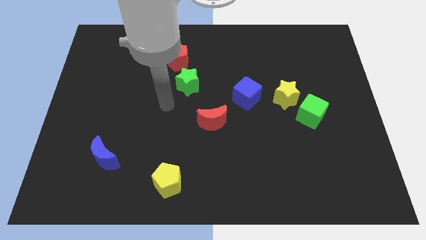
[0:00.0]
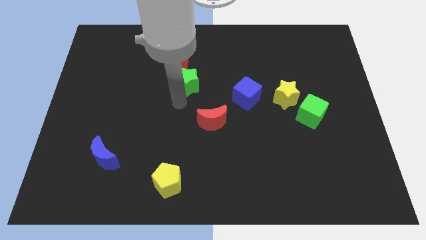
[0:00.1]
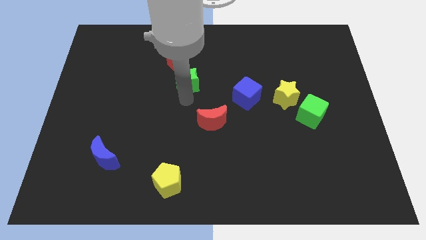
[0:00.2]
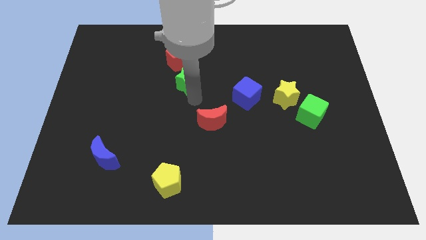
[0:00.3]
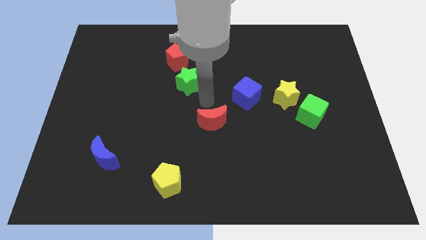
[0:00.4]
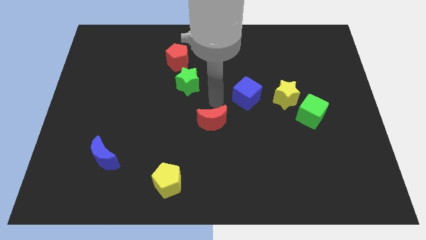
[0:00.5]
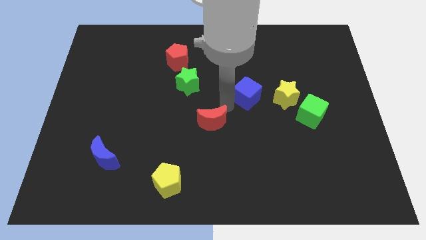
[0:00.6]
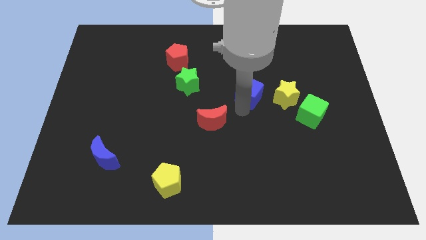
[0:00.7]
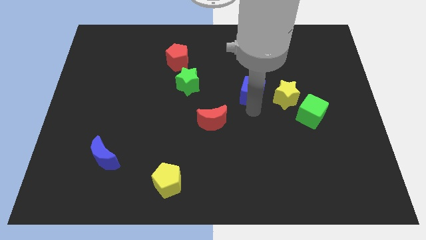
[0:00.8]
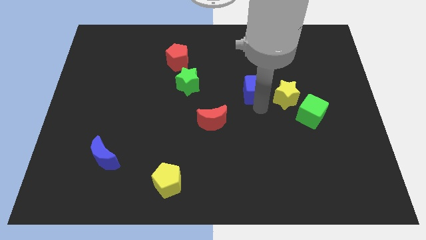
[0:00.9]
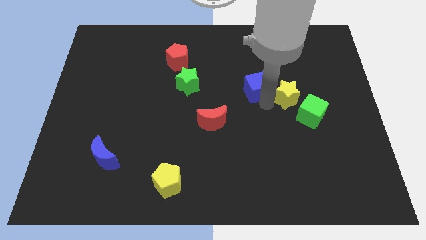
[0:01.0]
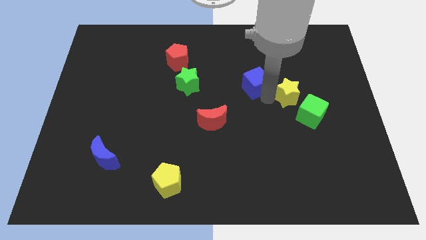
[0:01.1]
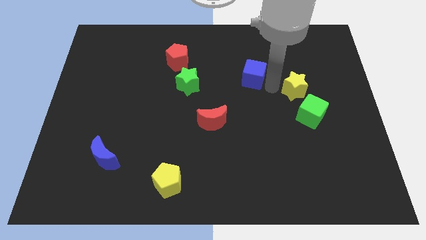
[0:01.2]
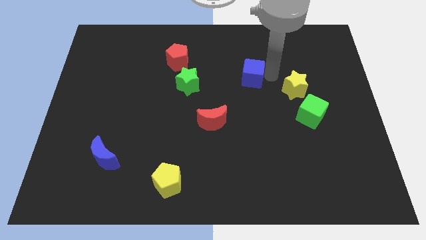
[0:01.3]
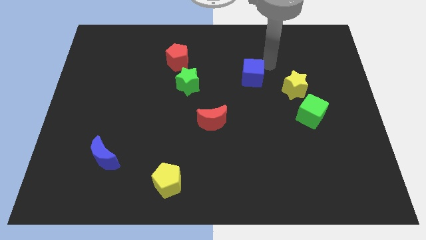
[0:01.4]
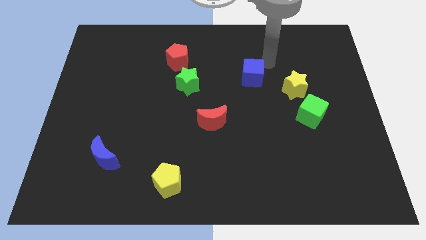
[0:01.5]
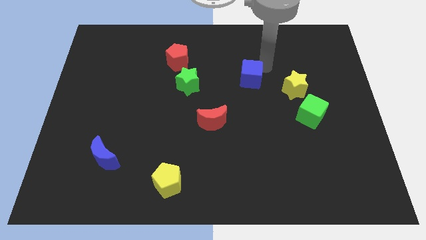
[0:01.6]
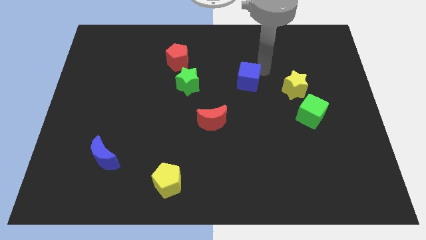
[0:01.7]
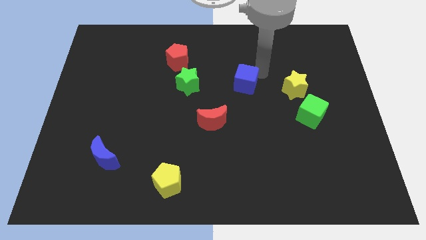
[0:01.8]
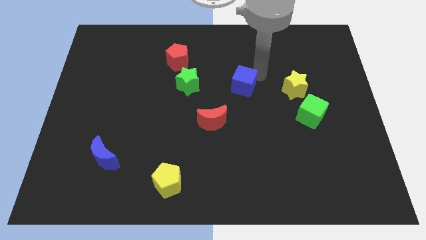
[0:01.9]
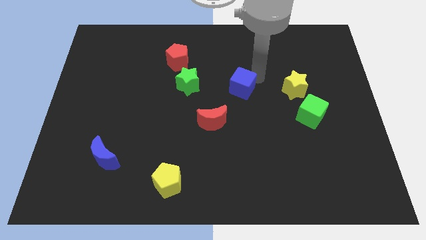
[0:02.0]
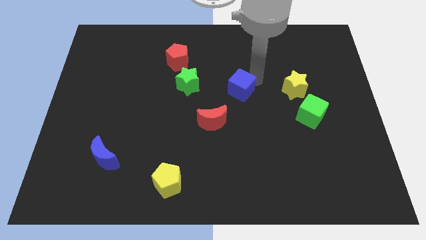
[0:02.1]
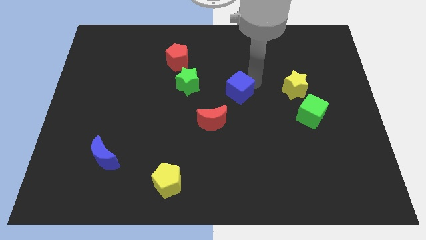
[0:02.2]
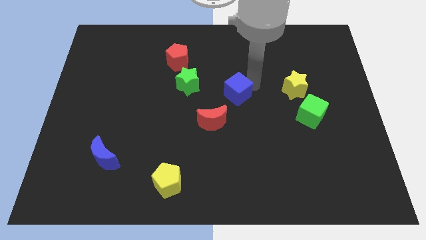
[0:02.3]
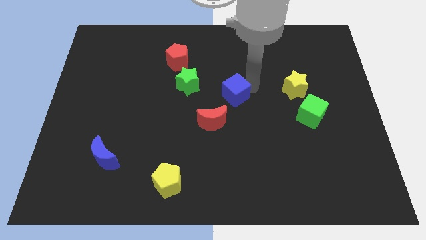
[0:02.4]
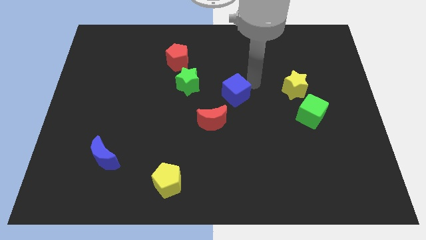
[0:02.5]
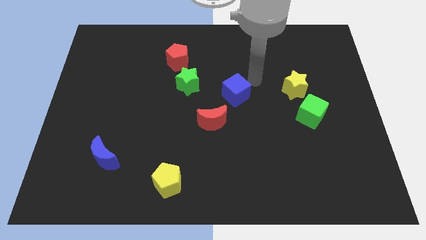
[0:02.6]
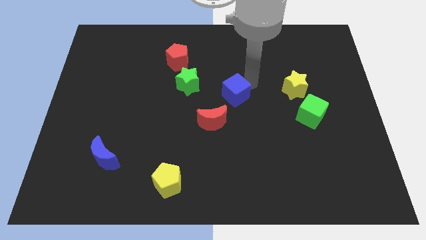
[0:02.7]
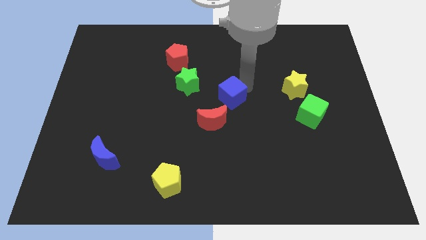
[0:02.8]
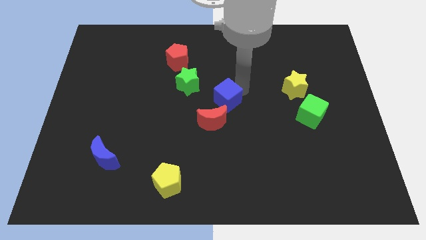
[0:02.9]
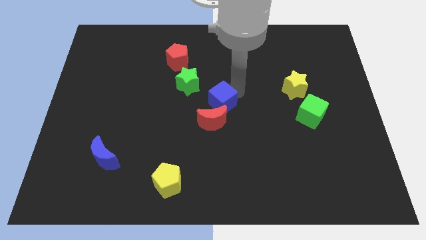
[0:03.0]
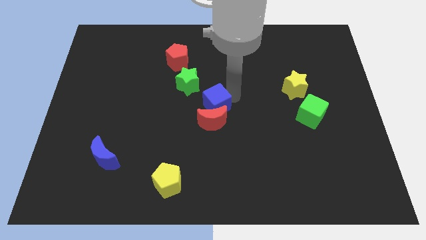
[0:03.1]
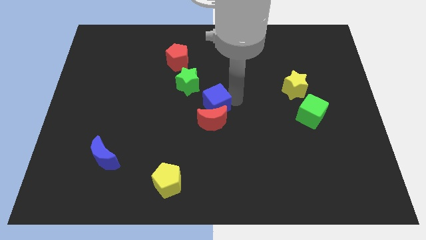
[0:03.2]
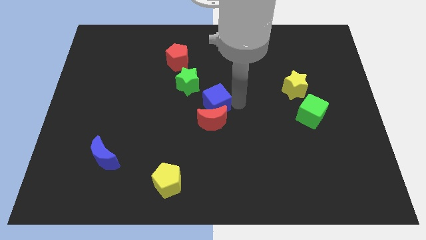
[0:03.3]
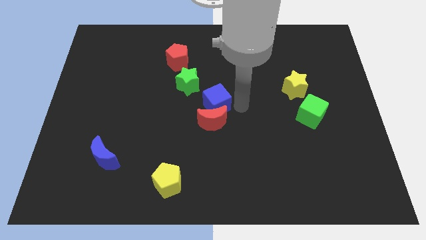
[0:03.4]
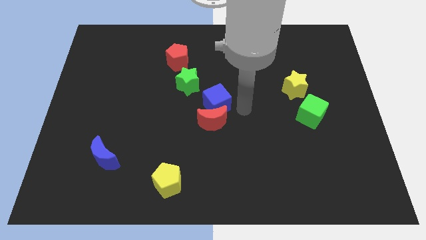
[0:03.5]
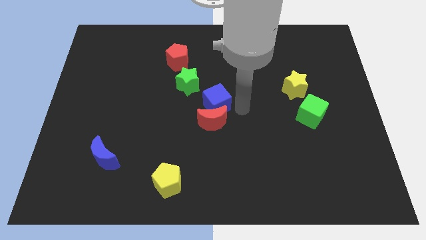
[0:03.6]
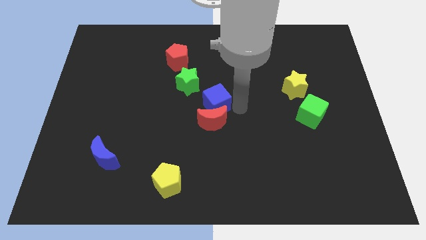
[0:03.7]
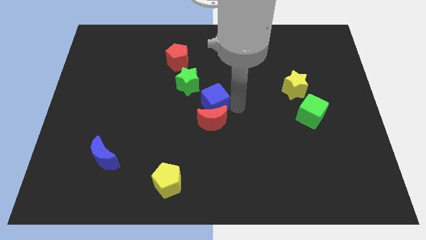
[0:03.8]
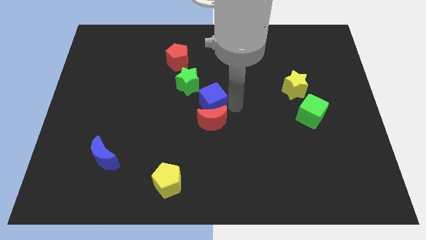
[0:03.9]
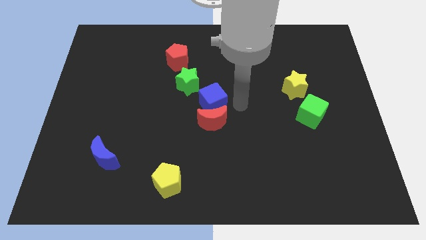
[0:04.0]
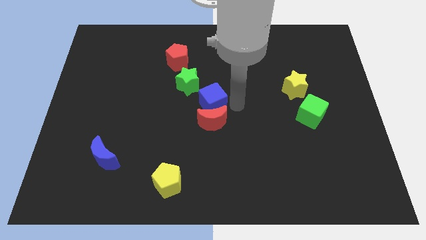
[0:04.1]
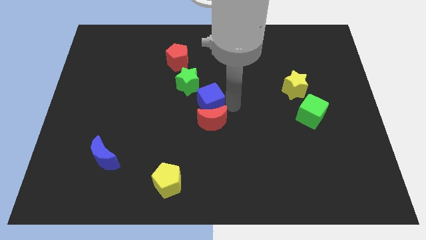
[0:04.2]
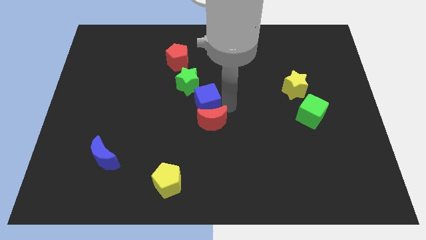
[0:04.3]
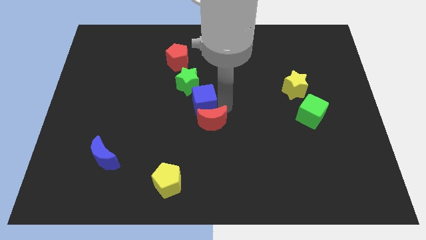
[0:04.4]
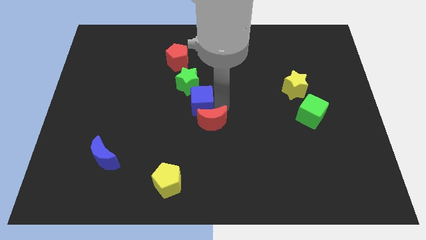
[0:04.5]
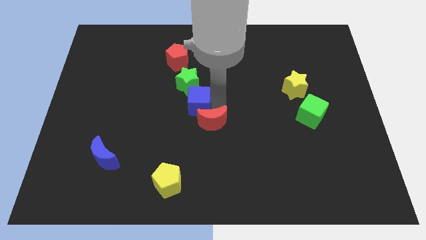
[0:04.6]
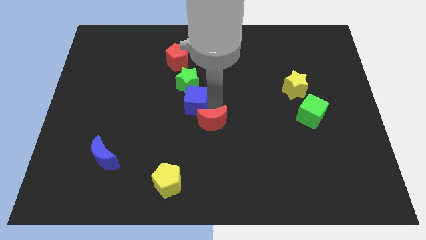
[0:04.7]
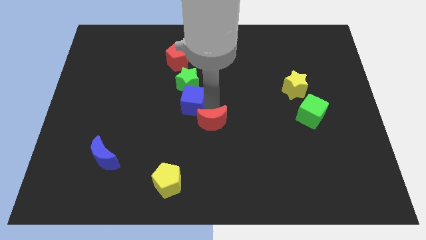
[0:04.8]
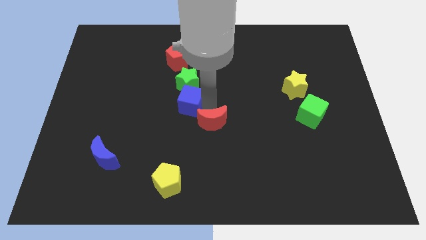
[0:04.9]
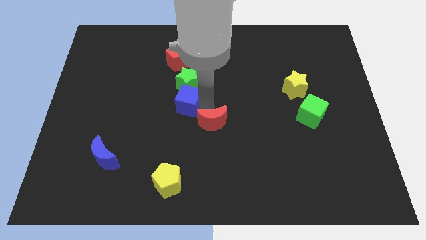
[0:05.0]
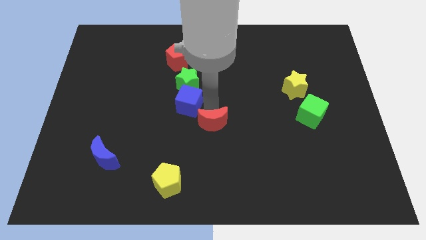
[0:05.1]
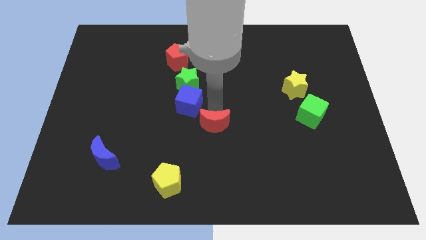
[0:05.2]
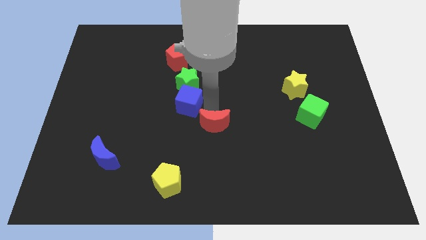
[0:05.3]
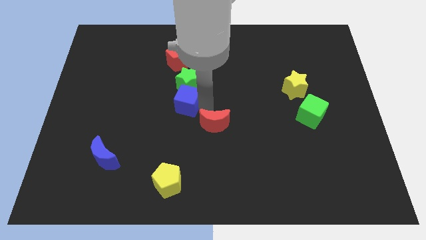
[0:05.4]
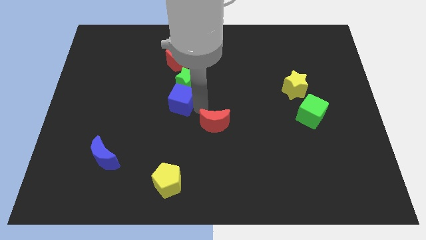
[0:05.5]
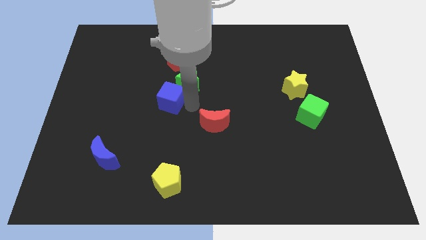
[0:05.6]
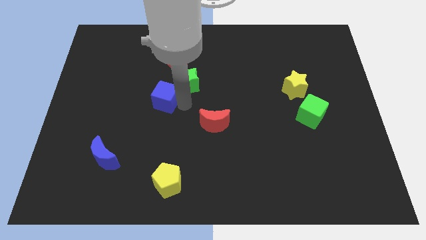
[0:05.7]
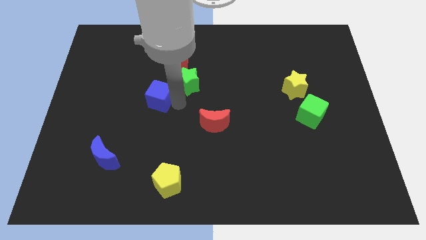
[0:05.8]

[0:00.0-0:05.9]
slide the blue cube left

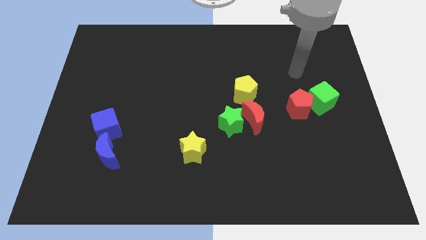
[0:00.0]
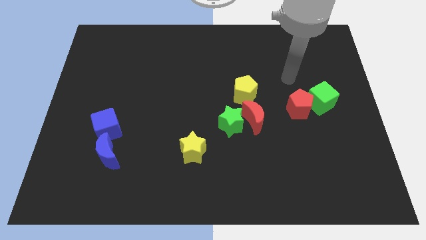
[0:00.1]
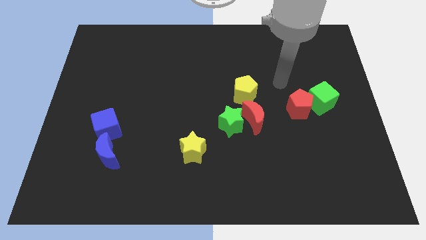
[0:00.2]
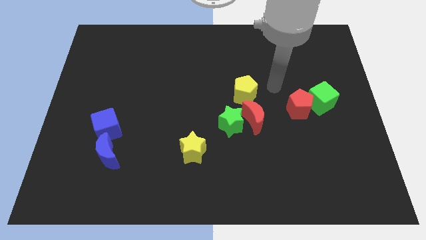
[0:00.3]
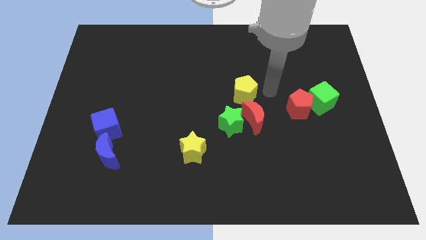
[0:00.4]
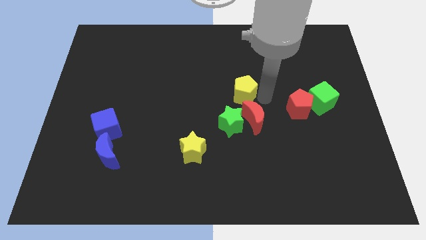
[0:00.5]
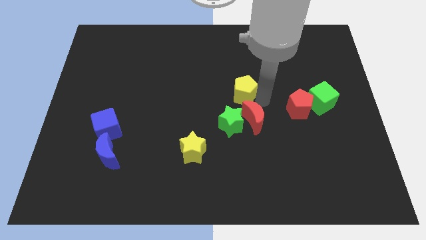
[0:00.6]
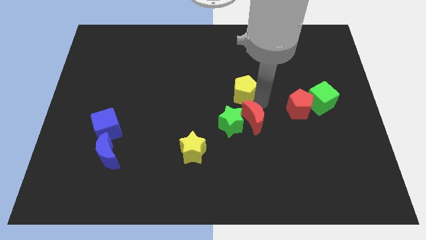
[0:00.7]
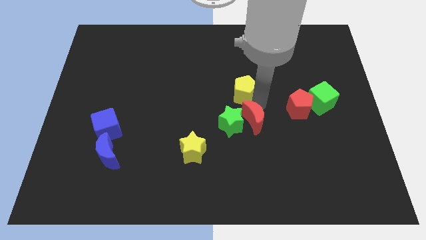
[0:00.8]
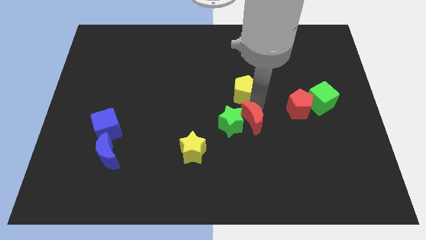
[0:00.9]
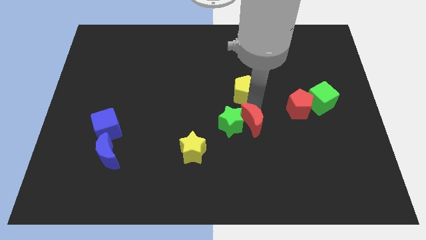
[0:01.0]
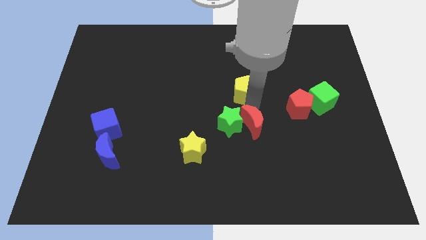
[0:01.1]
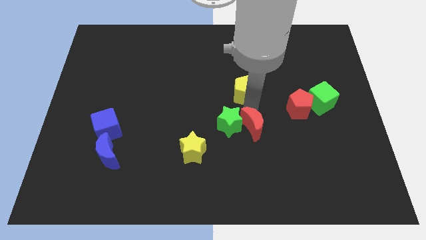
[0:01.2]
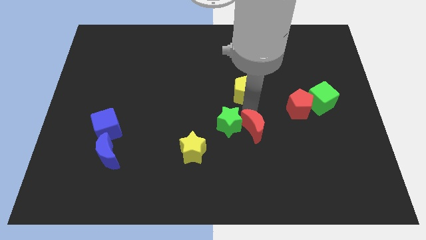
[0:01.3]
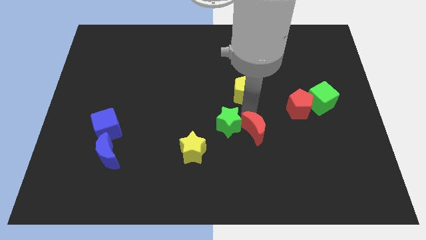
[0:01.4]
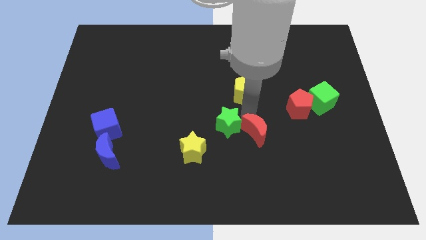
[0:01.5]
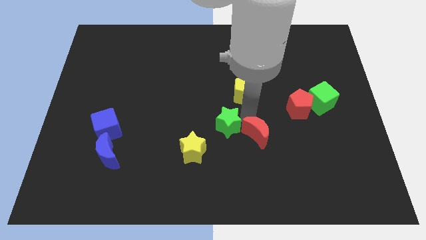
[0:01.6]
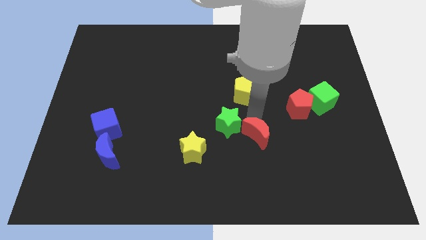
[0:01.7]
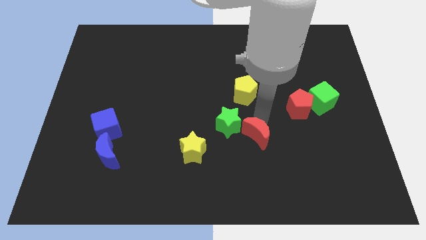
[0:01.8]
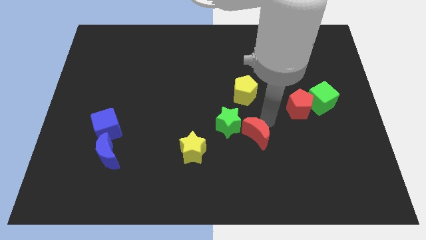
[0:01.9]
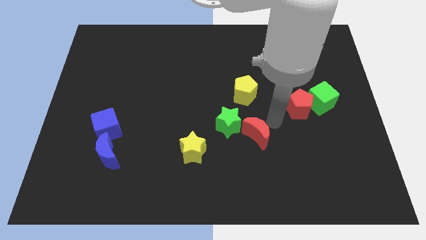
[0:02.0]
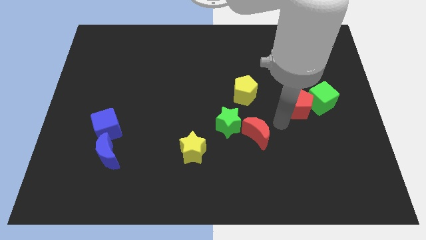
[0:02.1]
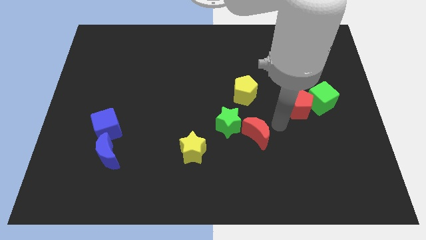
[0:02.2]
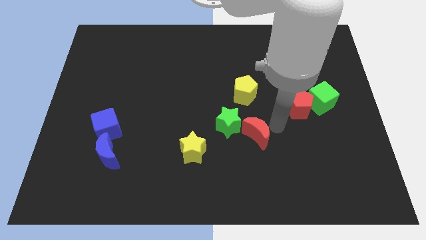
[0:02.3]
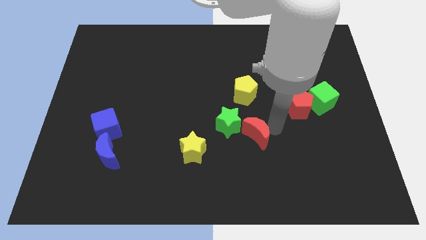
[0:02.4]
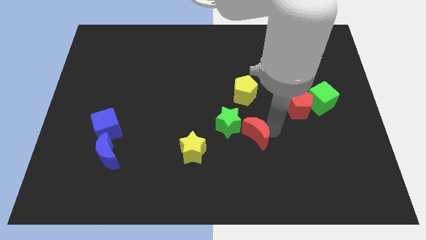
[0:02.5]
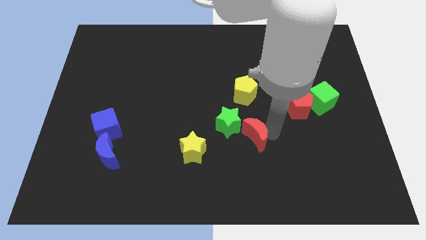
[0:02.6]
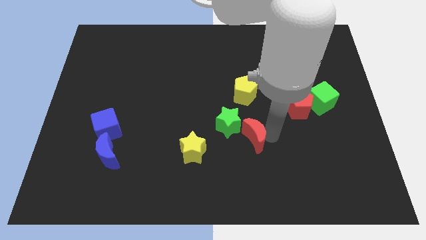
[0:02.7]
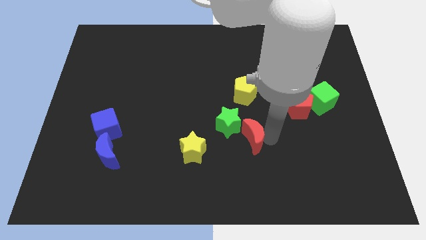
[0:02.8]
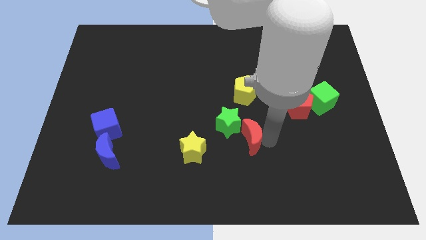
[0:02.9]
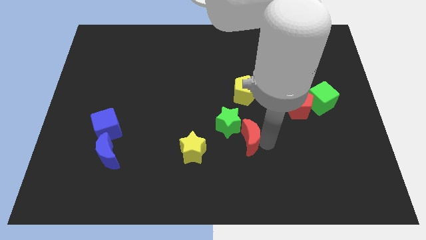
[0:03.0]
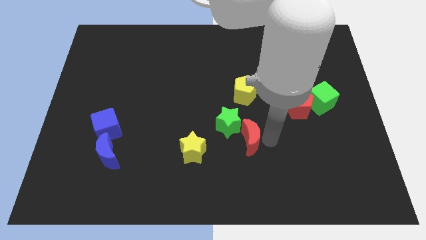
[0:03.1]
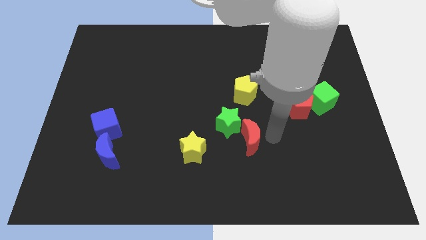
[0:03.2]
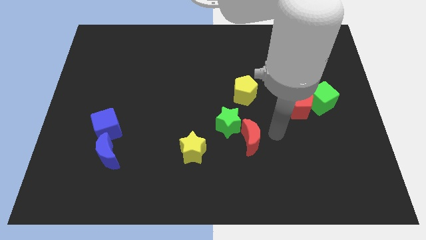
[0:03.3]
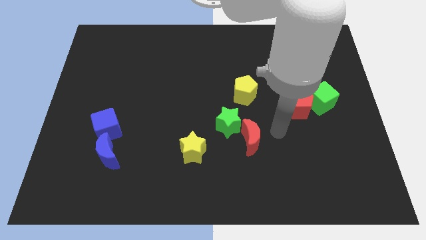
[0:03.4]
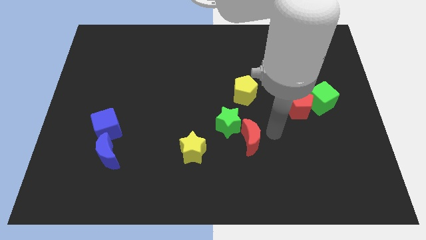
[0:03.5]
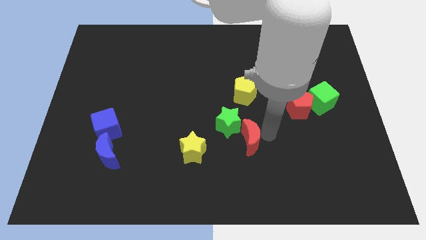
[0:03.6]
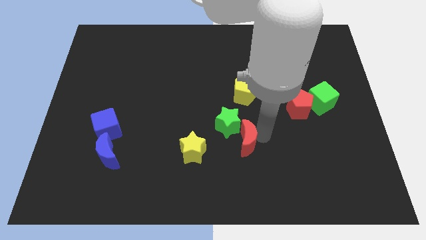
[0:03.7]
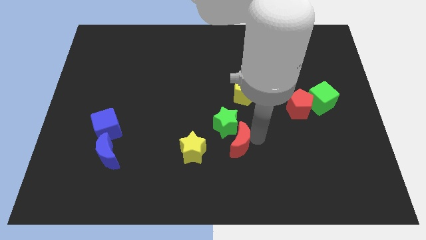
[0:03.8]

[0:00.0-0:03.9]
push the red moon down and left somewhat
